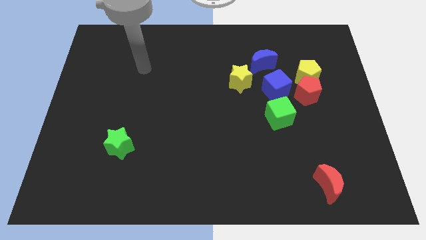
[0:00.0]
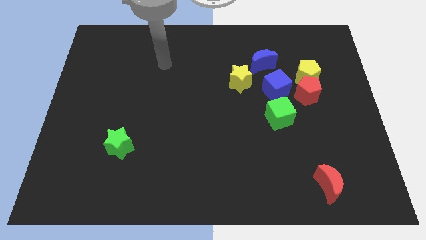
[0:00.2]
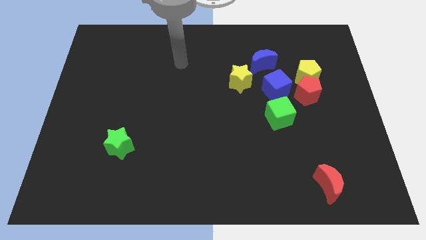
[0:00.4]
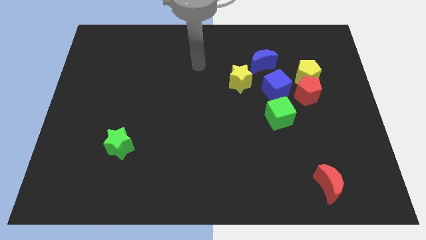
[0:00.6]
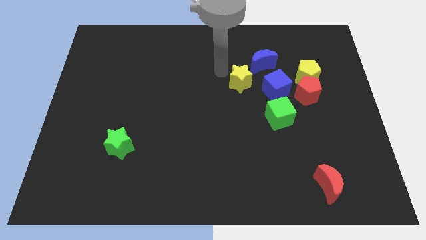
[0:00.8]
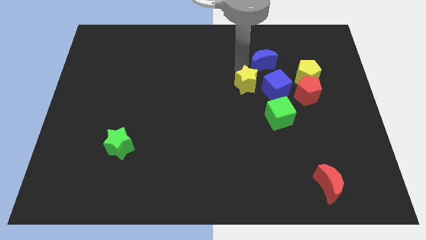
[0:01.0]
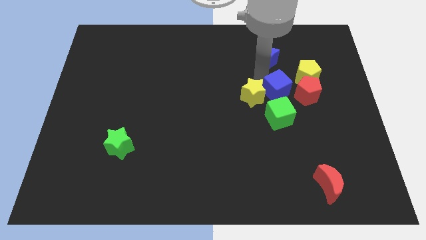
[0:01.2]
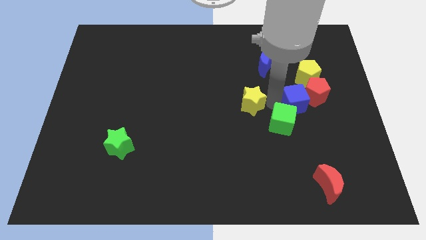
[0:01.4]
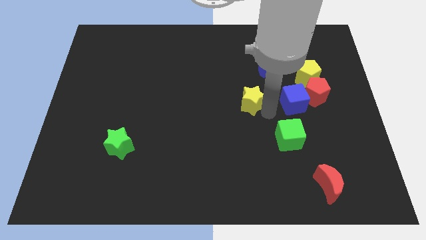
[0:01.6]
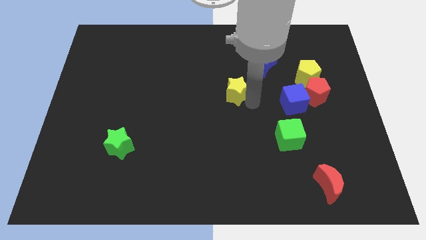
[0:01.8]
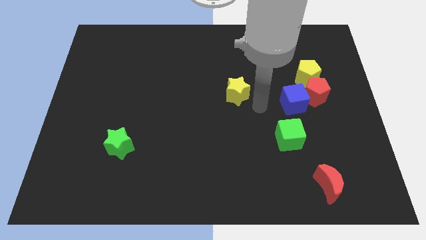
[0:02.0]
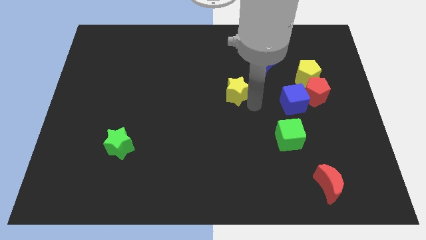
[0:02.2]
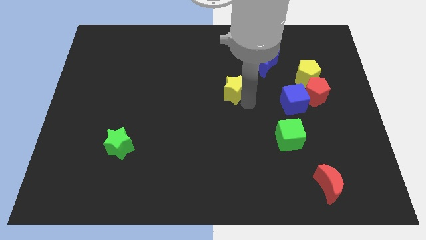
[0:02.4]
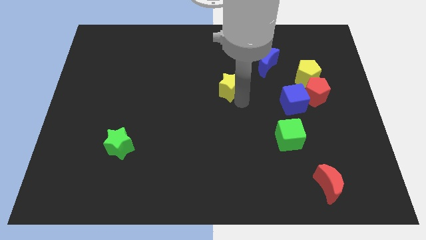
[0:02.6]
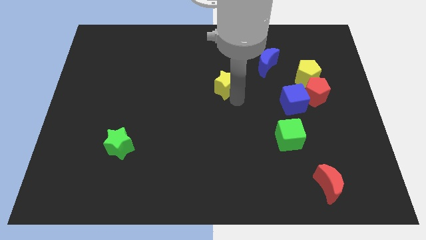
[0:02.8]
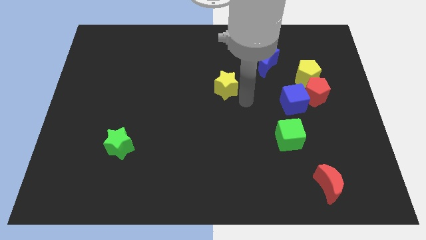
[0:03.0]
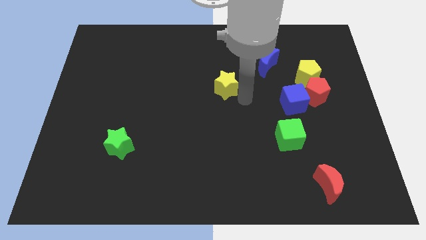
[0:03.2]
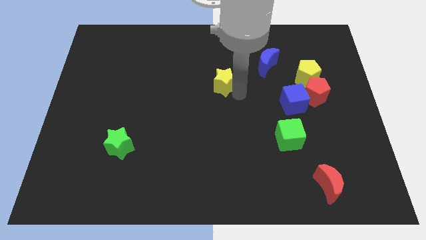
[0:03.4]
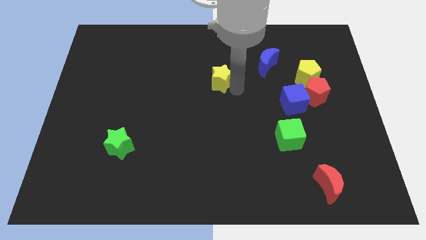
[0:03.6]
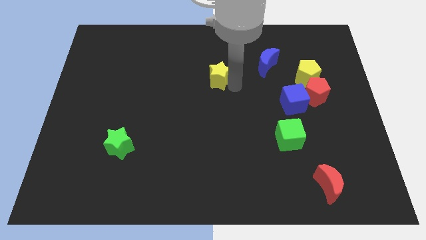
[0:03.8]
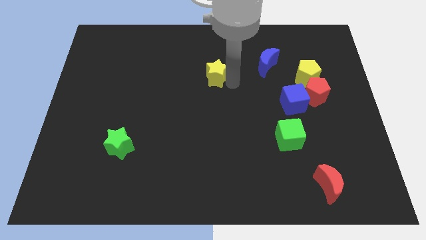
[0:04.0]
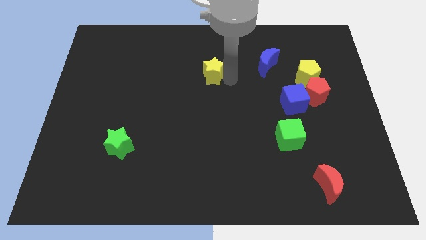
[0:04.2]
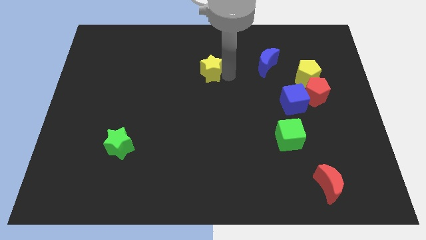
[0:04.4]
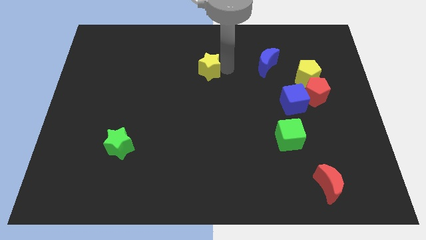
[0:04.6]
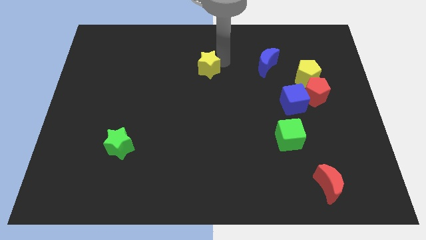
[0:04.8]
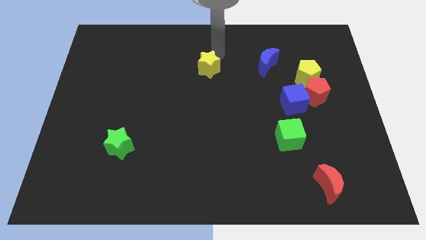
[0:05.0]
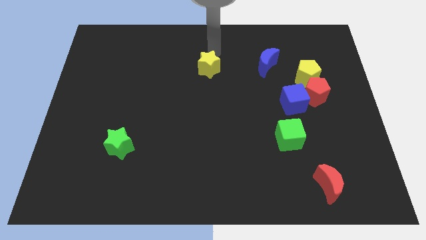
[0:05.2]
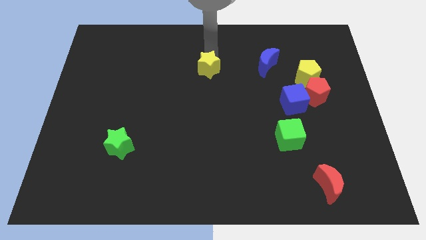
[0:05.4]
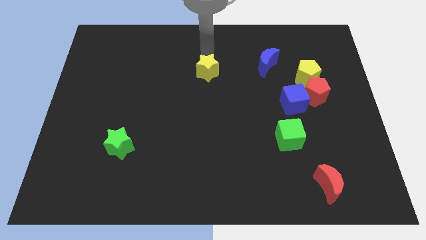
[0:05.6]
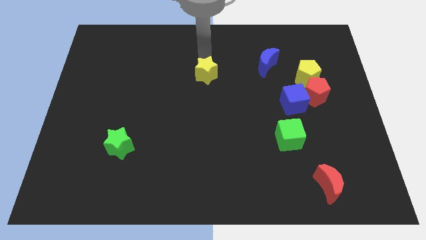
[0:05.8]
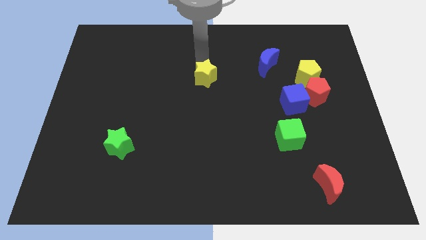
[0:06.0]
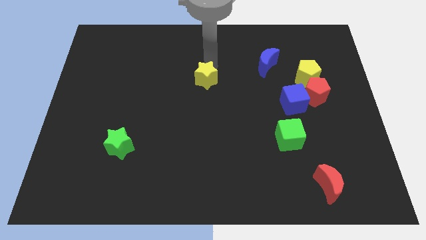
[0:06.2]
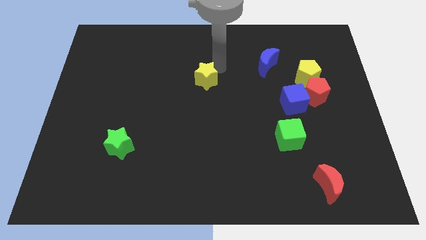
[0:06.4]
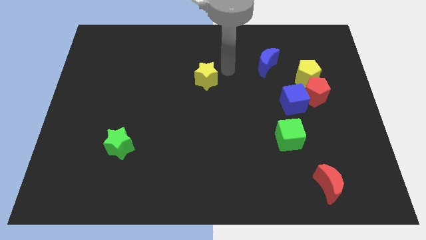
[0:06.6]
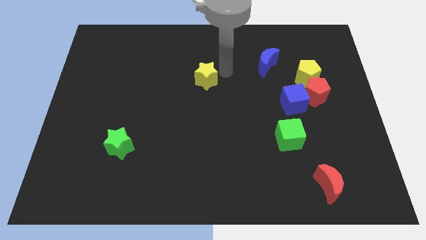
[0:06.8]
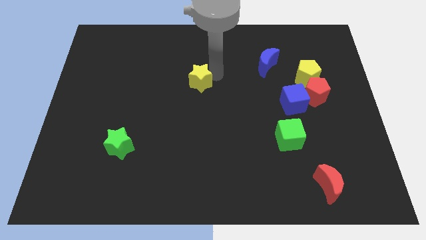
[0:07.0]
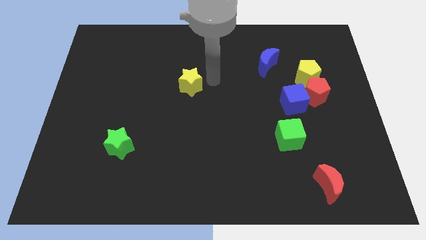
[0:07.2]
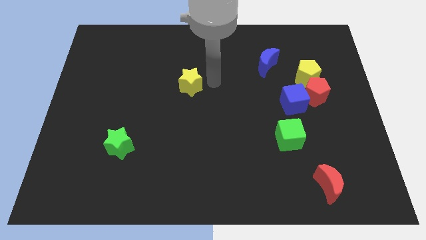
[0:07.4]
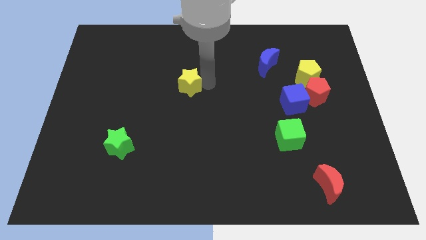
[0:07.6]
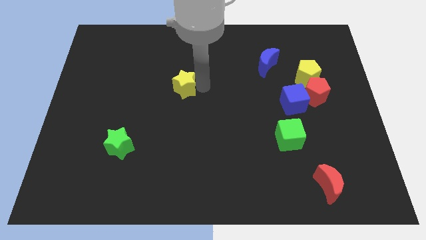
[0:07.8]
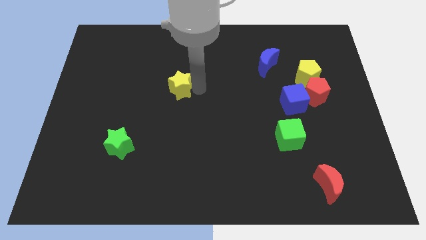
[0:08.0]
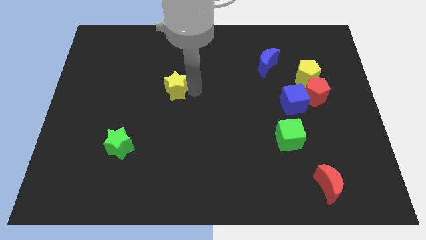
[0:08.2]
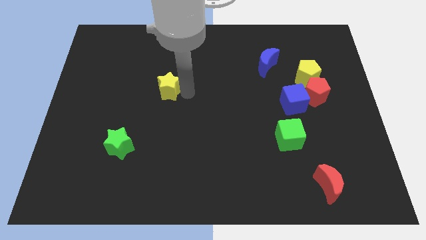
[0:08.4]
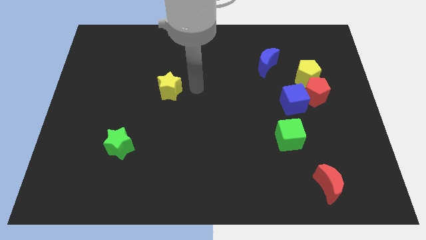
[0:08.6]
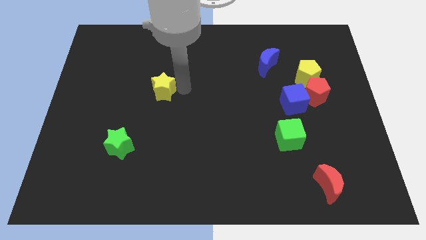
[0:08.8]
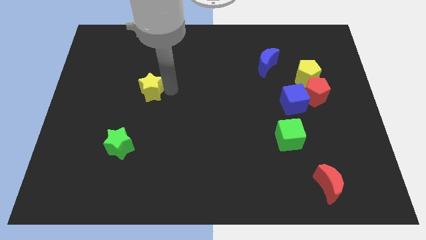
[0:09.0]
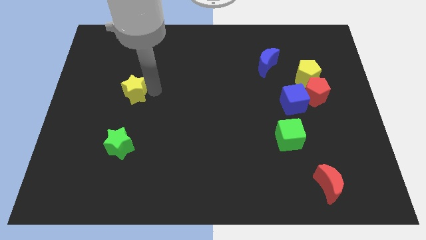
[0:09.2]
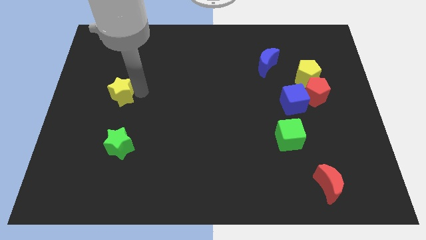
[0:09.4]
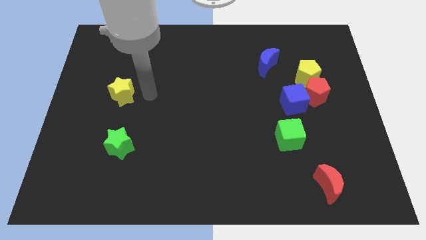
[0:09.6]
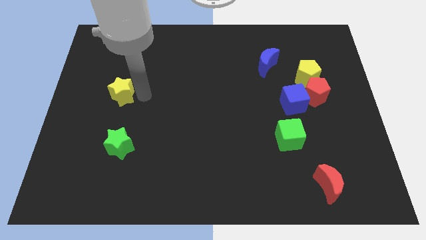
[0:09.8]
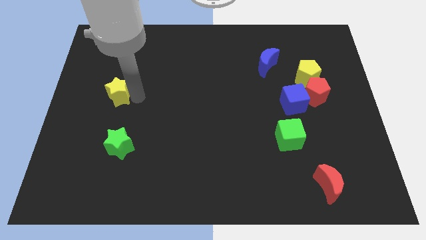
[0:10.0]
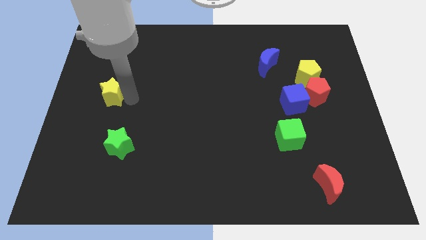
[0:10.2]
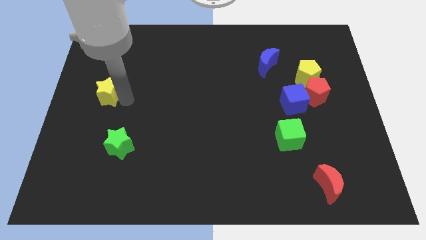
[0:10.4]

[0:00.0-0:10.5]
push the yellow star to the center left

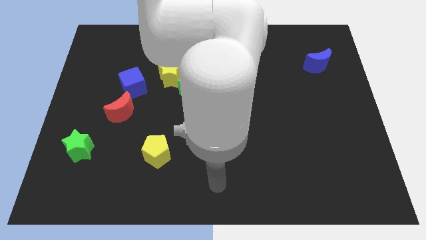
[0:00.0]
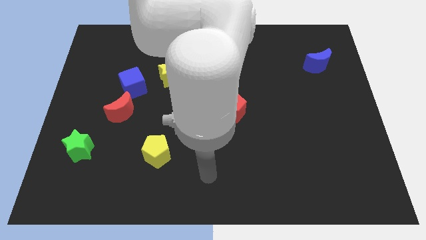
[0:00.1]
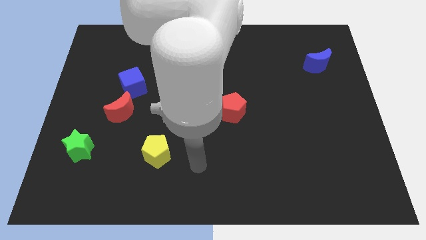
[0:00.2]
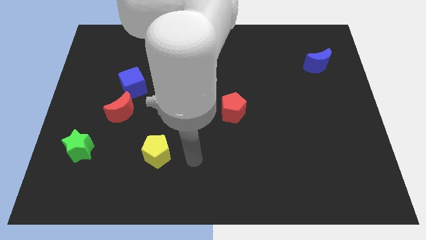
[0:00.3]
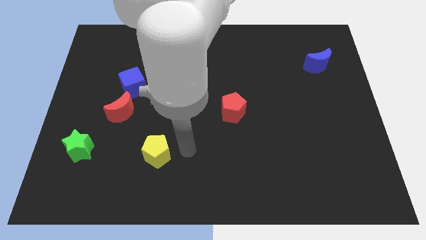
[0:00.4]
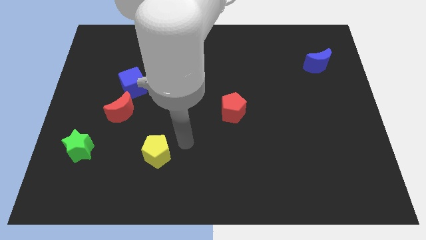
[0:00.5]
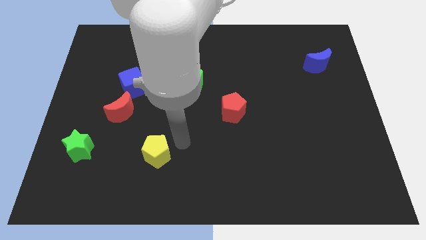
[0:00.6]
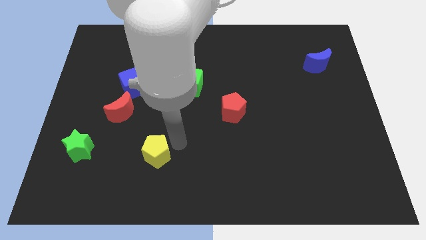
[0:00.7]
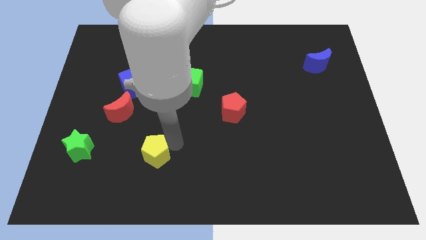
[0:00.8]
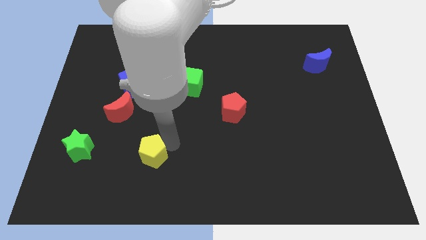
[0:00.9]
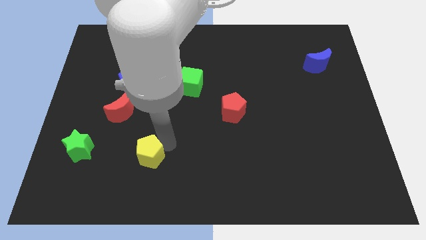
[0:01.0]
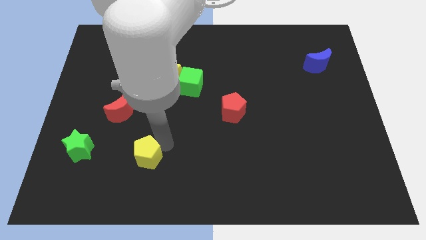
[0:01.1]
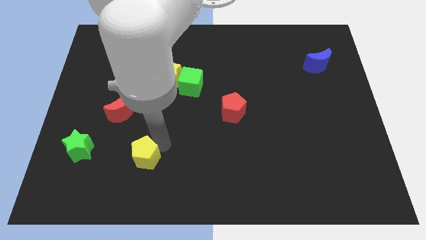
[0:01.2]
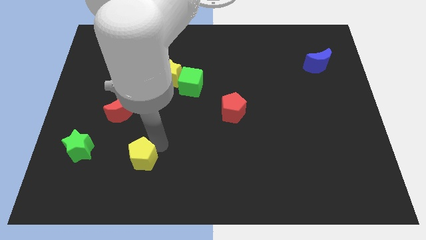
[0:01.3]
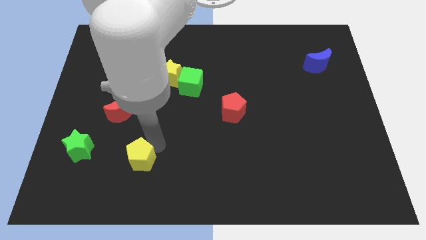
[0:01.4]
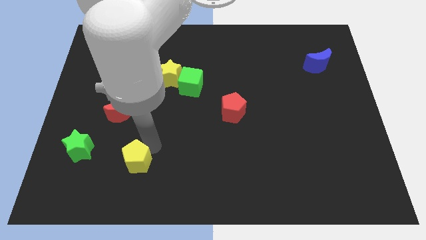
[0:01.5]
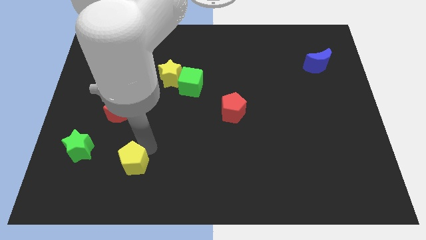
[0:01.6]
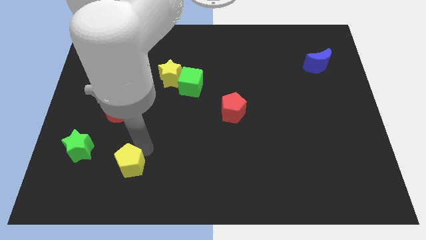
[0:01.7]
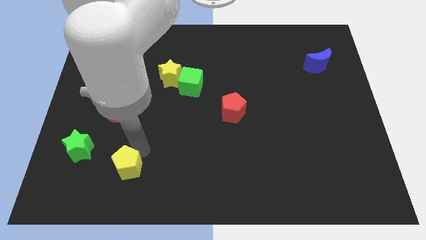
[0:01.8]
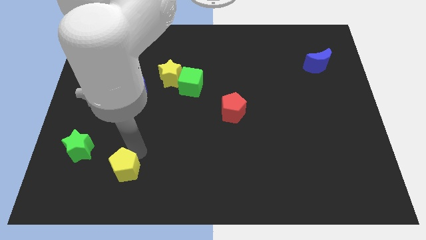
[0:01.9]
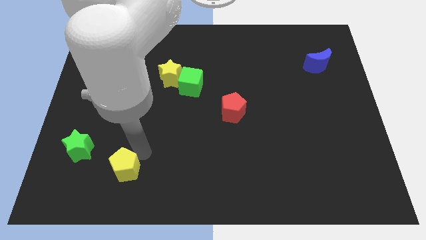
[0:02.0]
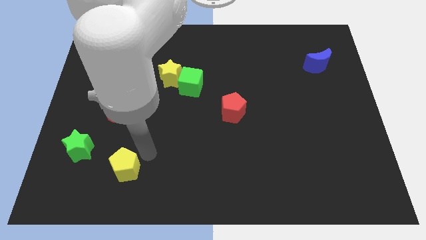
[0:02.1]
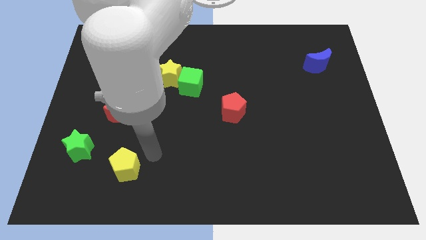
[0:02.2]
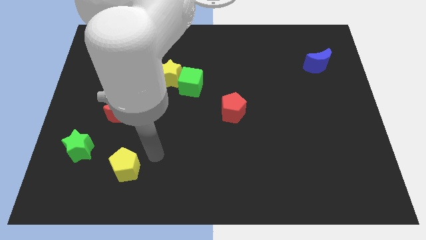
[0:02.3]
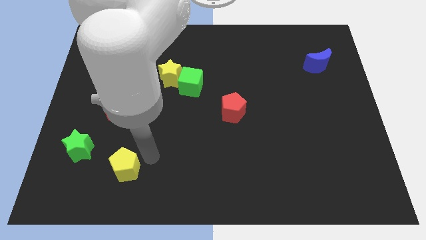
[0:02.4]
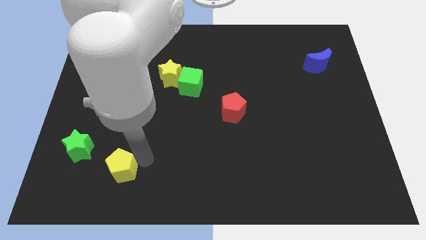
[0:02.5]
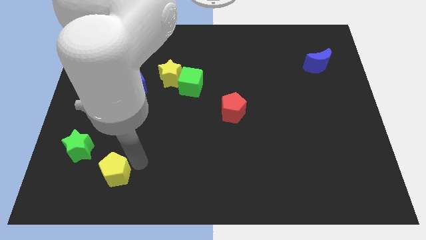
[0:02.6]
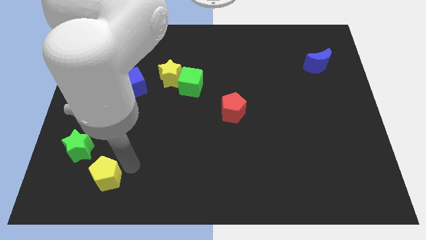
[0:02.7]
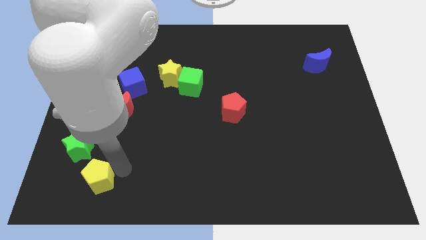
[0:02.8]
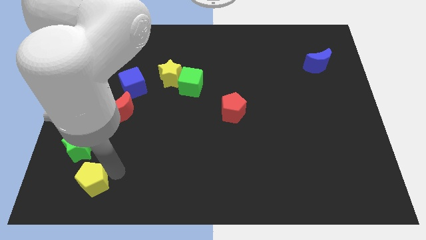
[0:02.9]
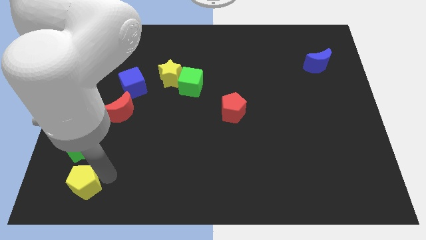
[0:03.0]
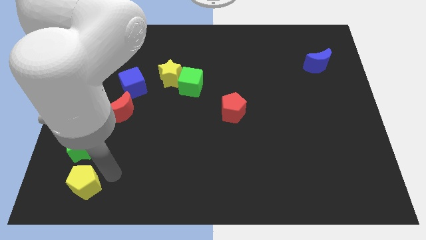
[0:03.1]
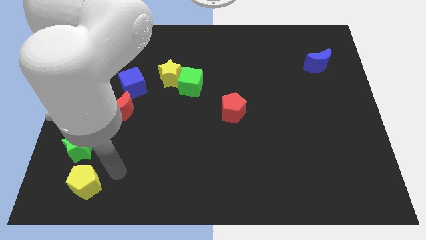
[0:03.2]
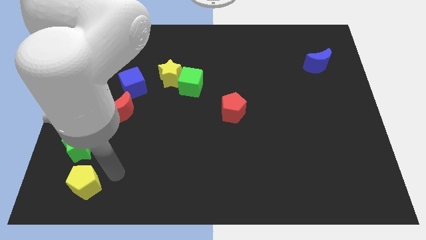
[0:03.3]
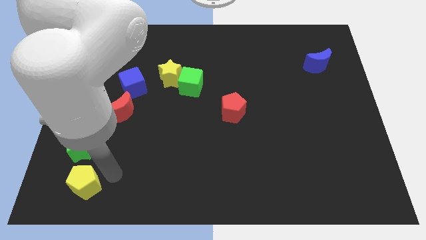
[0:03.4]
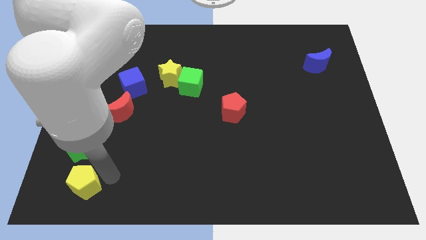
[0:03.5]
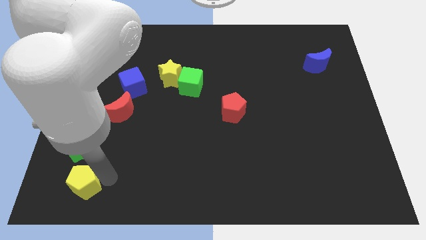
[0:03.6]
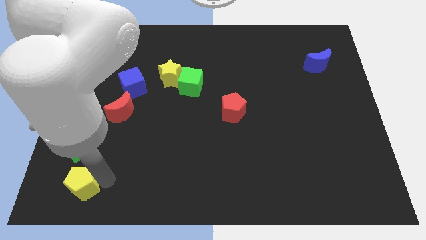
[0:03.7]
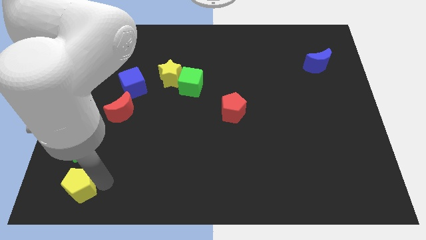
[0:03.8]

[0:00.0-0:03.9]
push the yellow pentagon to the bottom left
